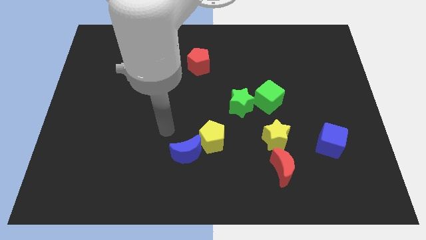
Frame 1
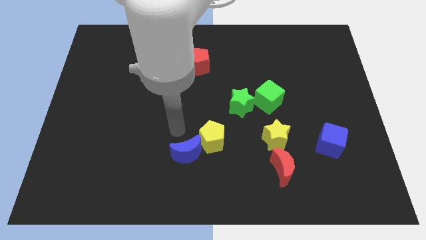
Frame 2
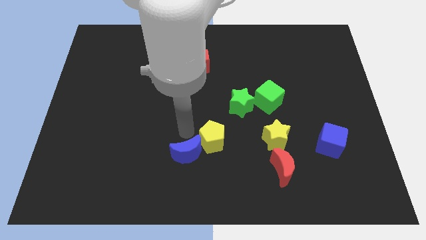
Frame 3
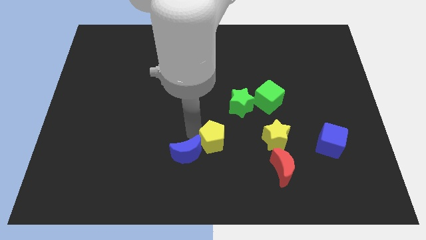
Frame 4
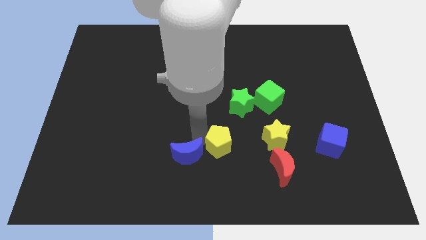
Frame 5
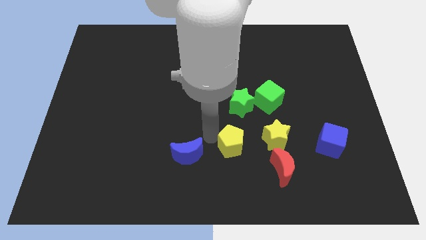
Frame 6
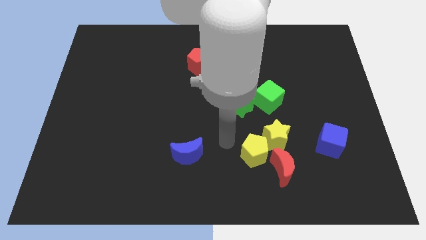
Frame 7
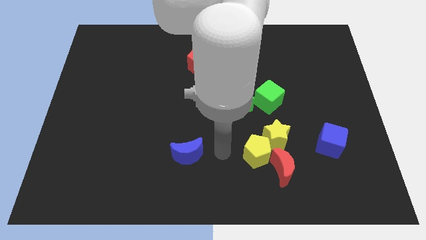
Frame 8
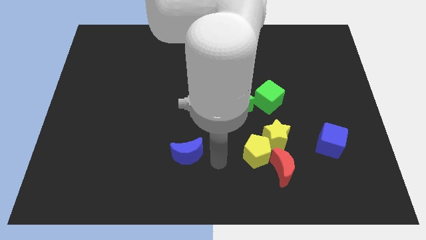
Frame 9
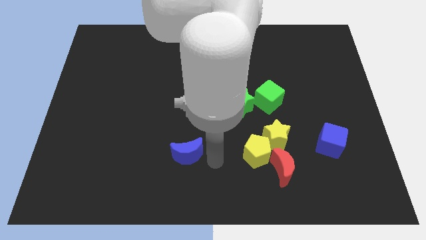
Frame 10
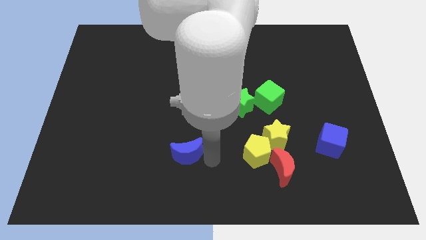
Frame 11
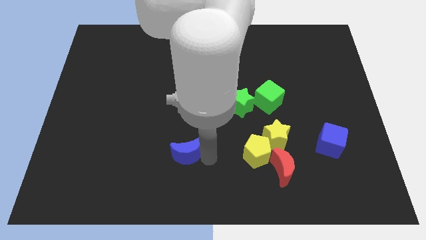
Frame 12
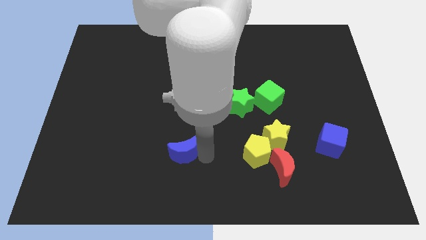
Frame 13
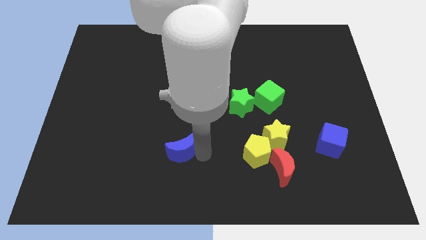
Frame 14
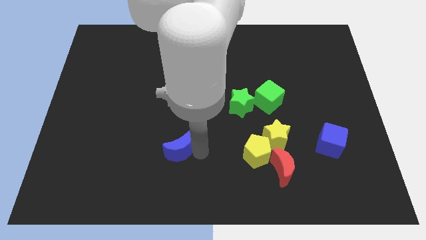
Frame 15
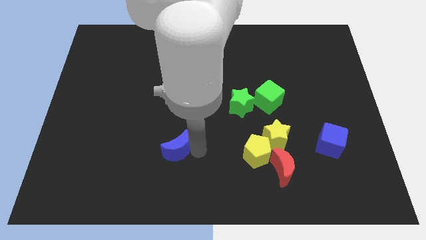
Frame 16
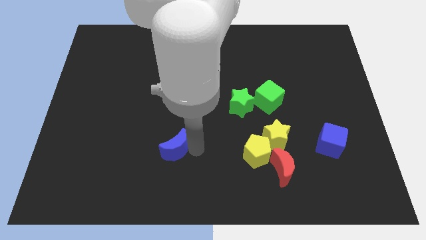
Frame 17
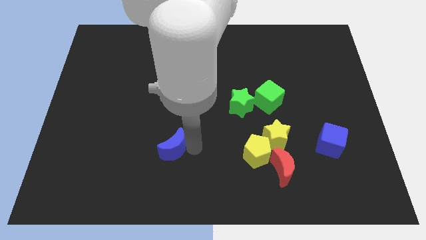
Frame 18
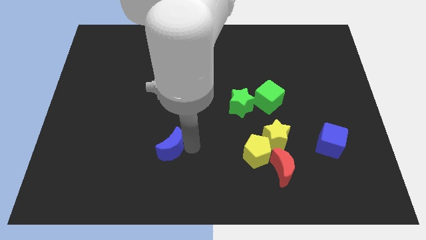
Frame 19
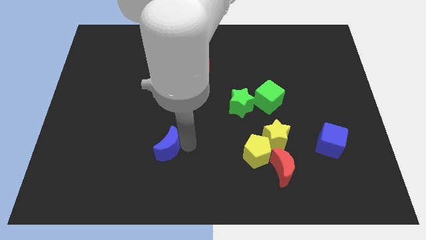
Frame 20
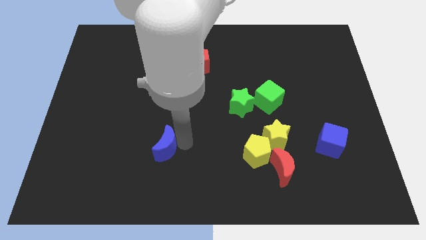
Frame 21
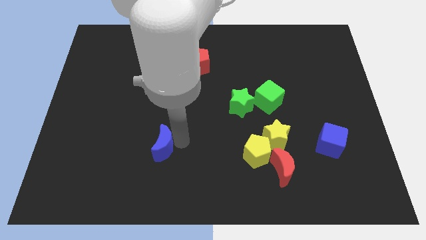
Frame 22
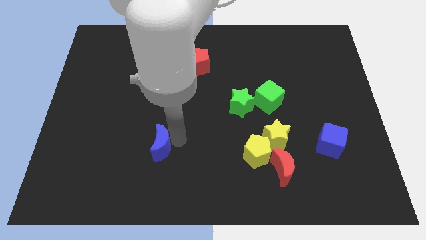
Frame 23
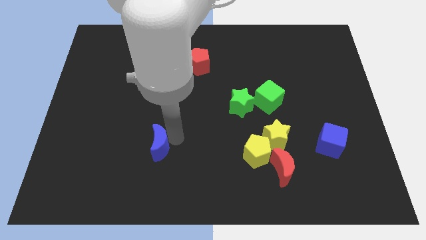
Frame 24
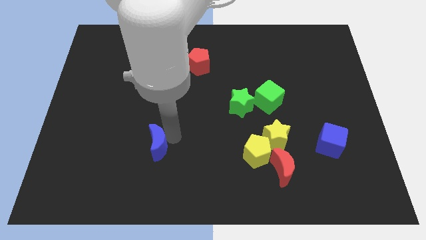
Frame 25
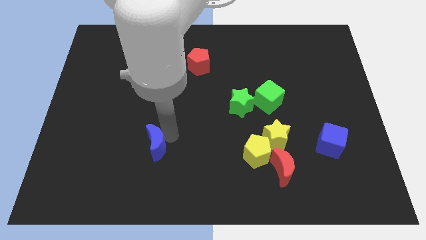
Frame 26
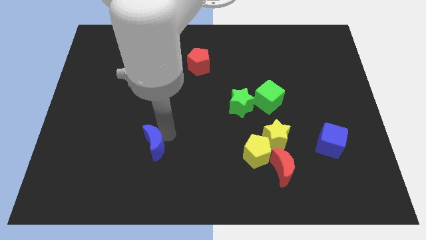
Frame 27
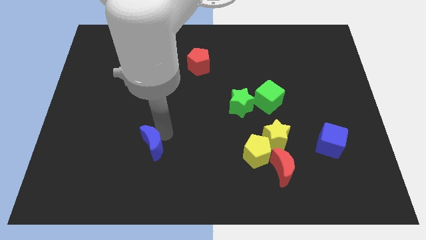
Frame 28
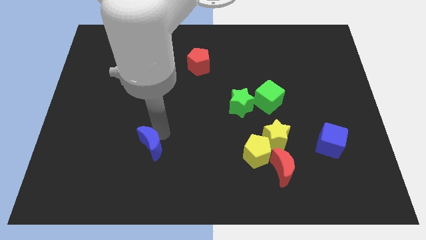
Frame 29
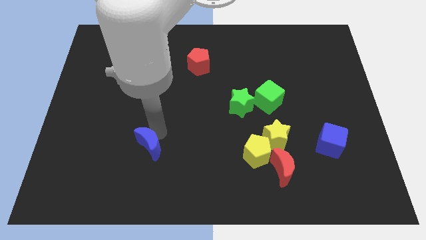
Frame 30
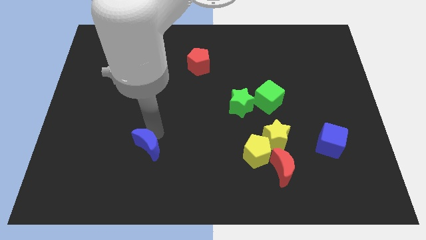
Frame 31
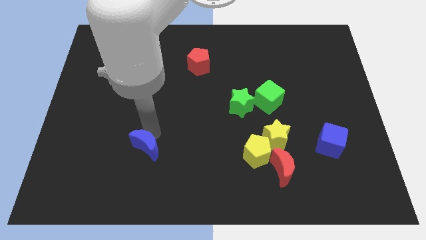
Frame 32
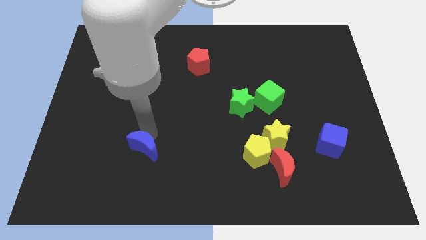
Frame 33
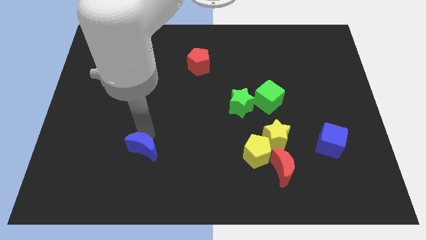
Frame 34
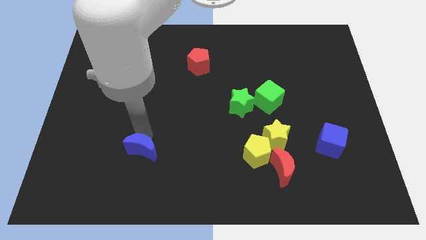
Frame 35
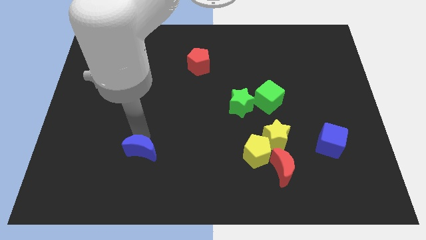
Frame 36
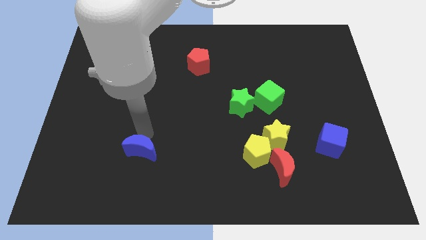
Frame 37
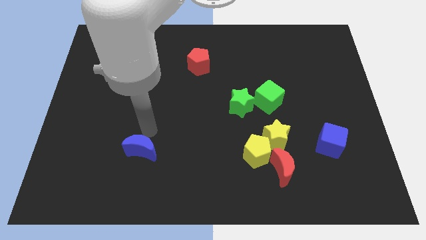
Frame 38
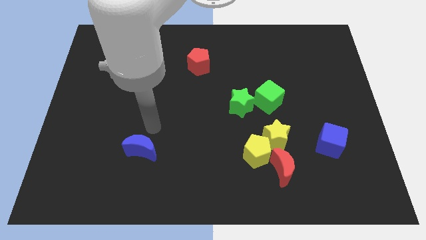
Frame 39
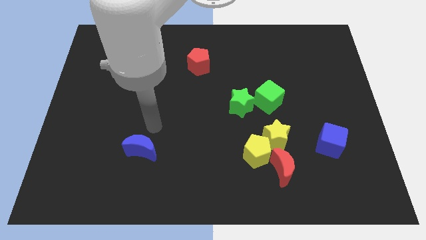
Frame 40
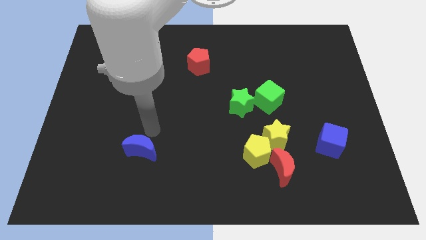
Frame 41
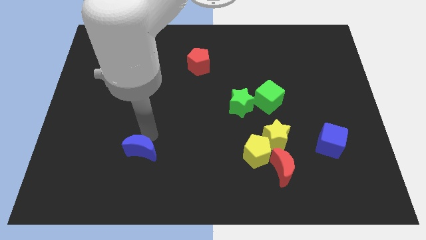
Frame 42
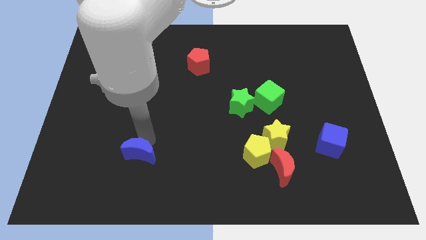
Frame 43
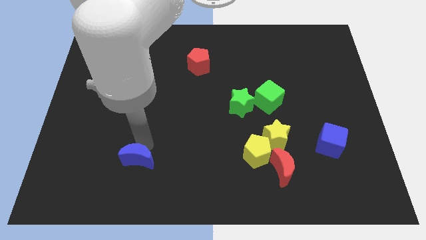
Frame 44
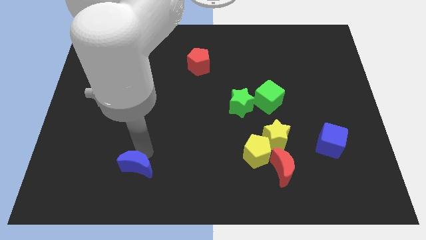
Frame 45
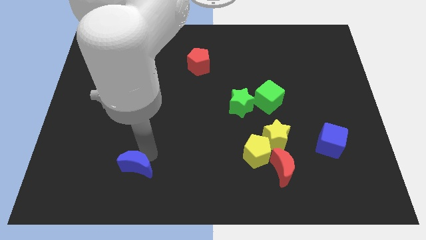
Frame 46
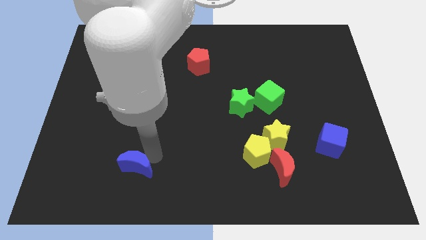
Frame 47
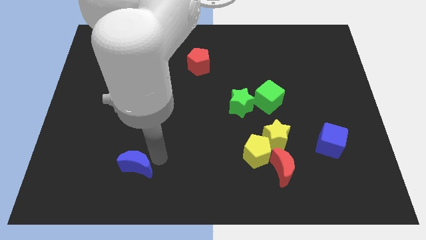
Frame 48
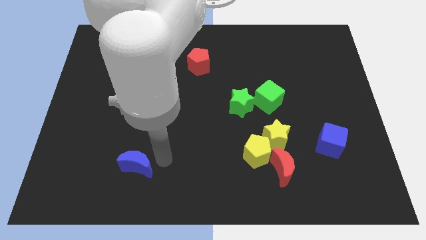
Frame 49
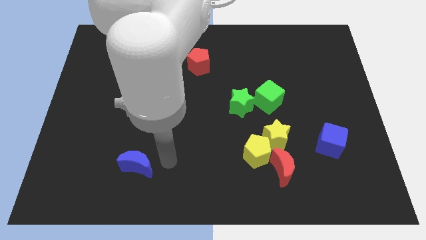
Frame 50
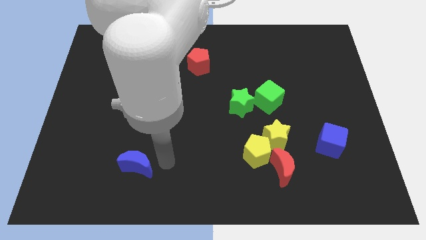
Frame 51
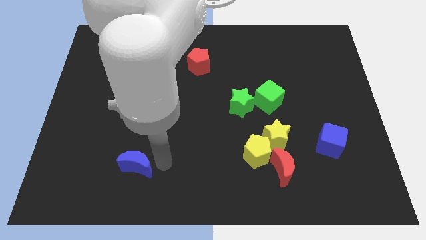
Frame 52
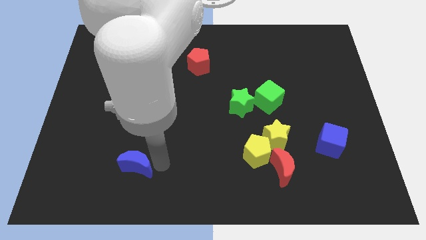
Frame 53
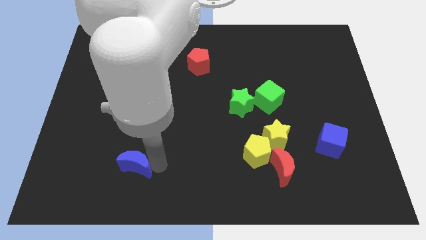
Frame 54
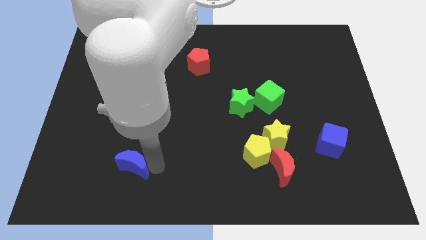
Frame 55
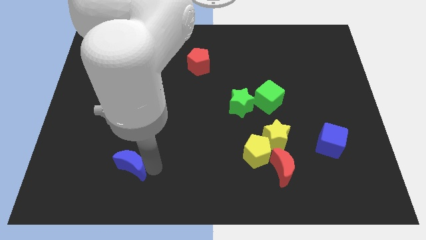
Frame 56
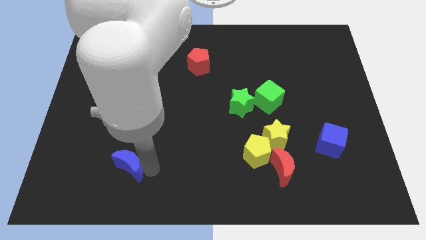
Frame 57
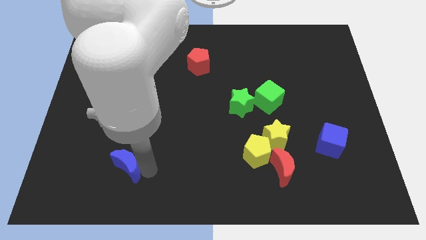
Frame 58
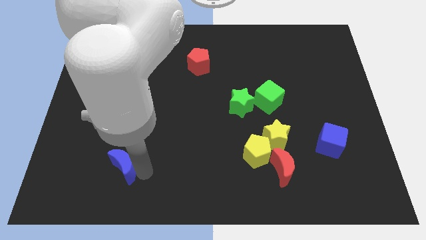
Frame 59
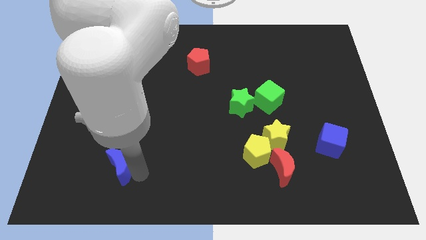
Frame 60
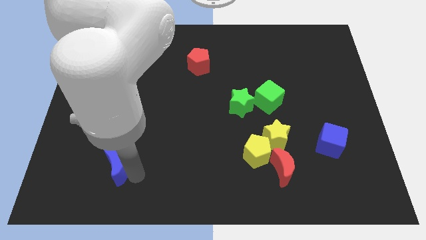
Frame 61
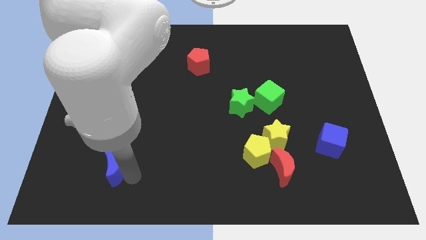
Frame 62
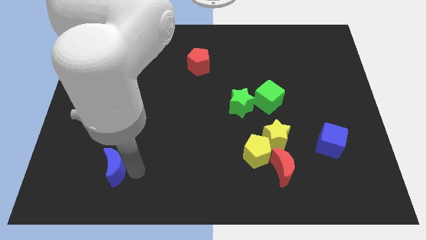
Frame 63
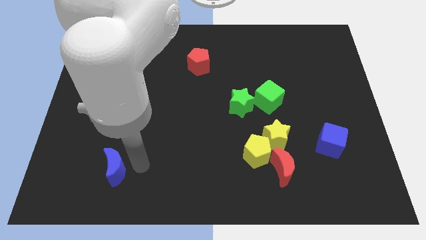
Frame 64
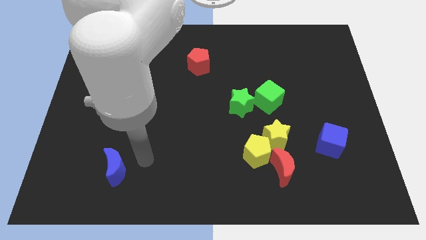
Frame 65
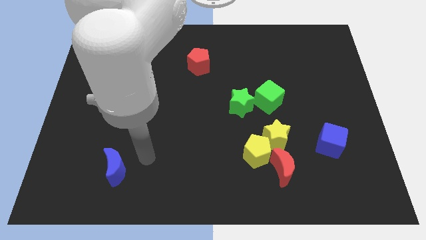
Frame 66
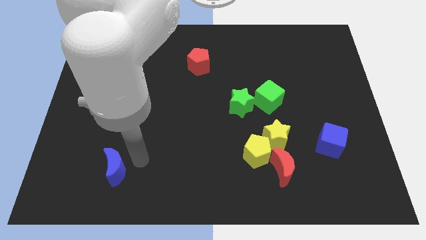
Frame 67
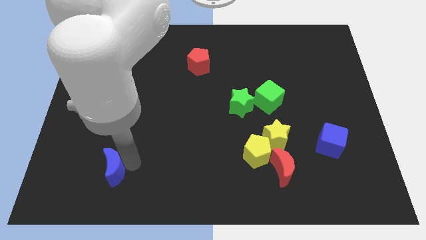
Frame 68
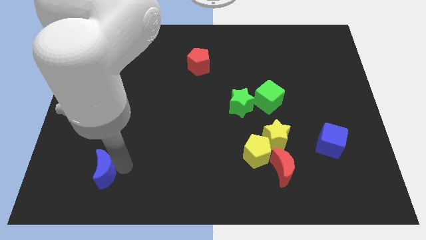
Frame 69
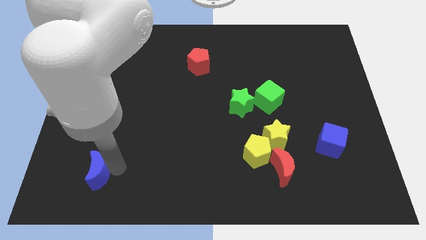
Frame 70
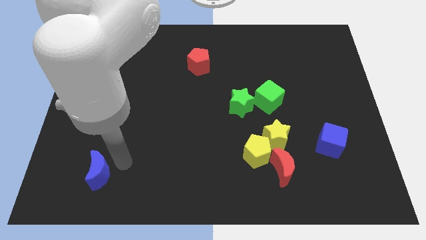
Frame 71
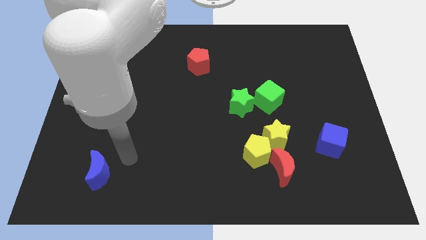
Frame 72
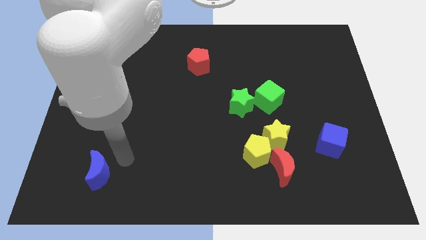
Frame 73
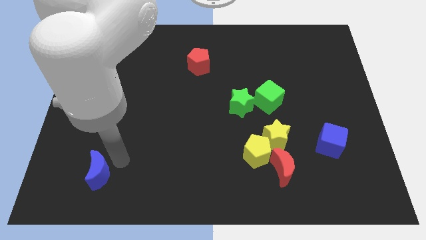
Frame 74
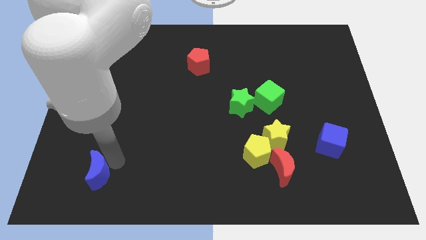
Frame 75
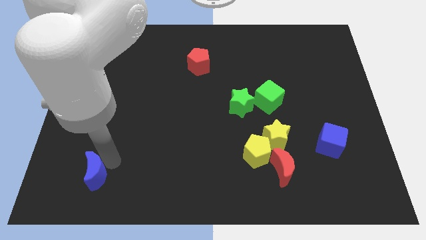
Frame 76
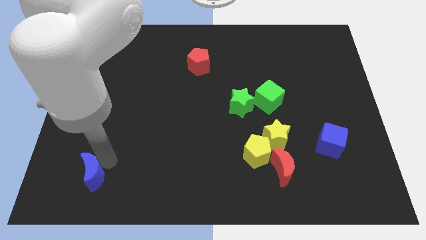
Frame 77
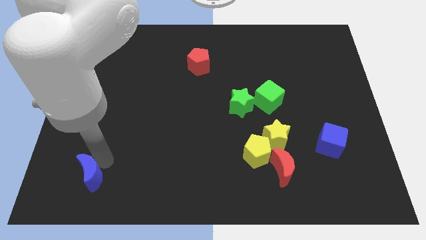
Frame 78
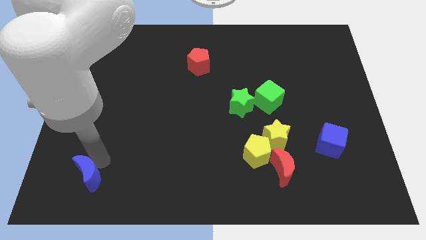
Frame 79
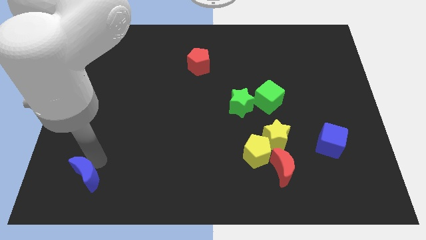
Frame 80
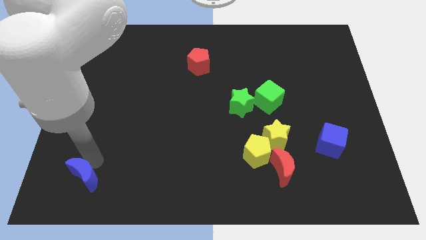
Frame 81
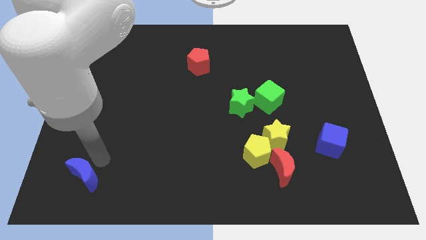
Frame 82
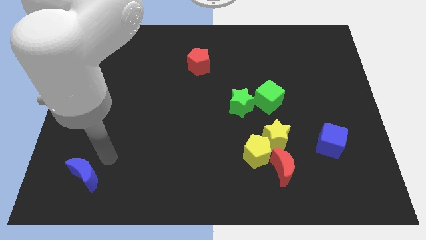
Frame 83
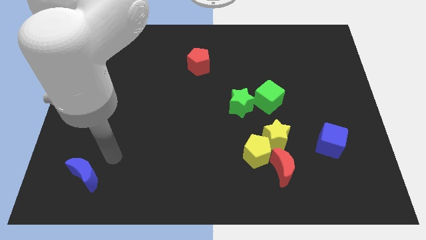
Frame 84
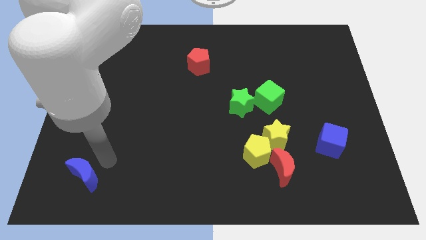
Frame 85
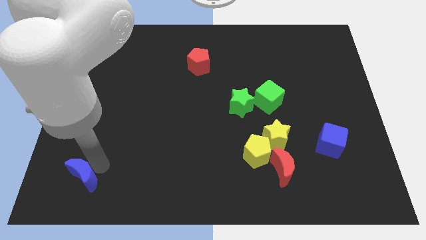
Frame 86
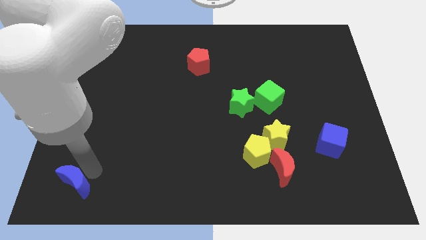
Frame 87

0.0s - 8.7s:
move the blue moon to the lower left corner
